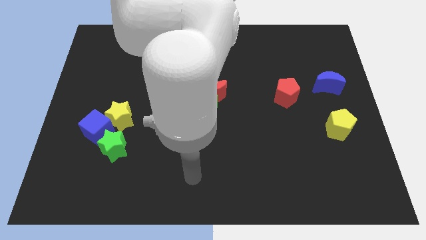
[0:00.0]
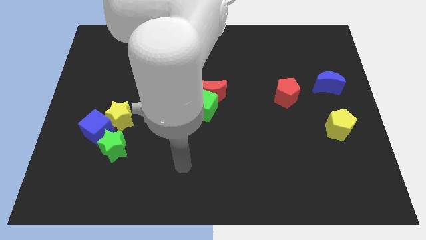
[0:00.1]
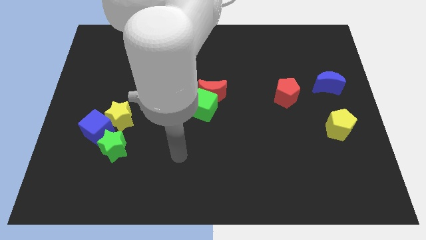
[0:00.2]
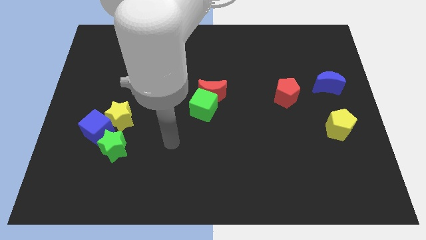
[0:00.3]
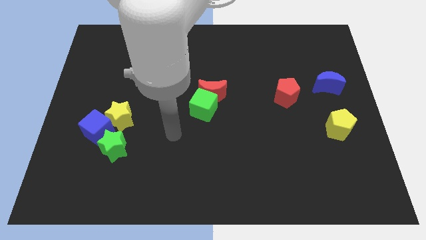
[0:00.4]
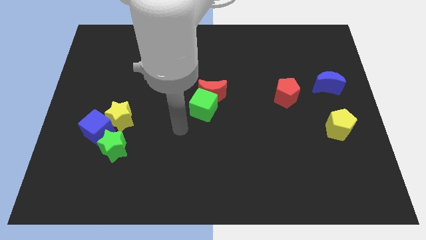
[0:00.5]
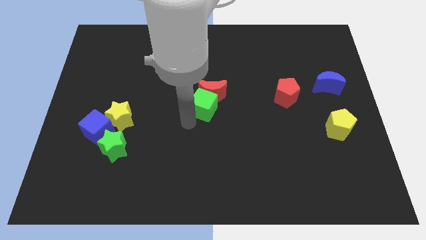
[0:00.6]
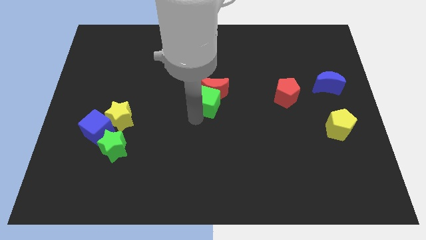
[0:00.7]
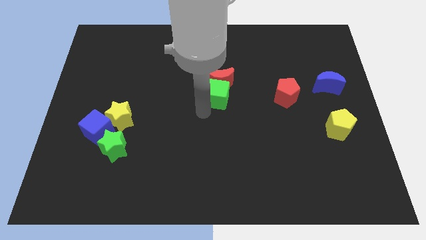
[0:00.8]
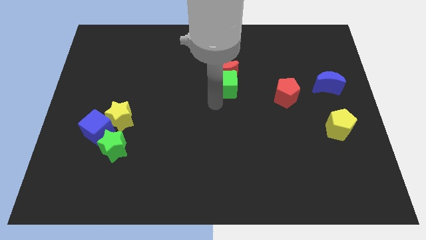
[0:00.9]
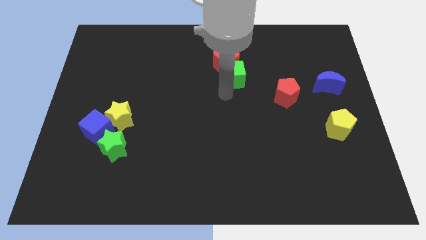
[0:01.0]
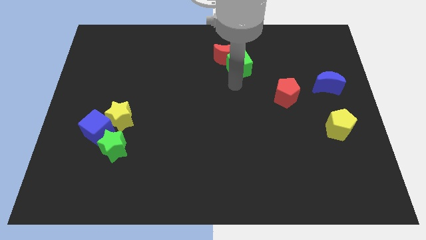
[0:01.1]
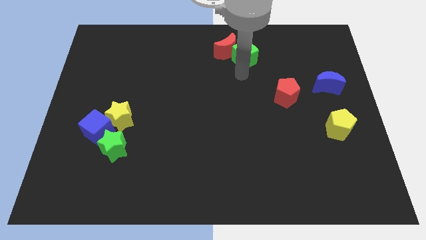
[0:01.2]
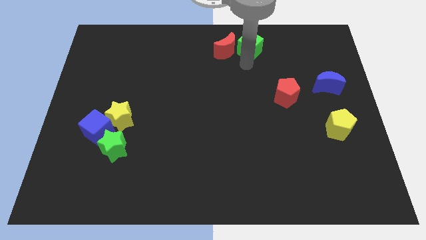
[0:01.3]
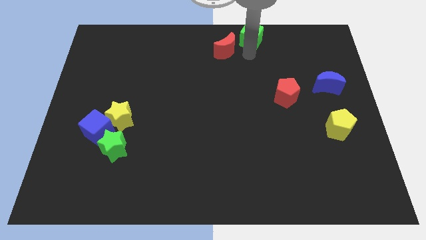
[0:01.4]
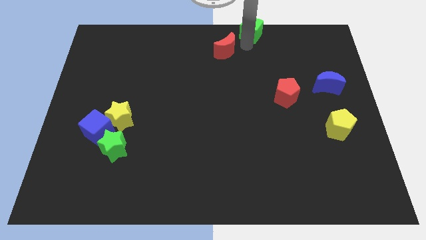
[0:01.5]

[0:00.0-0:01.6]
pull the red moon apart from the green cube

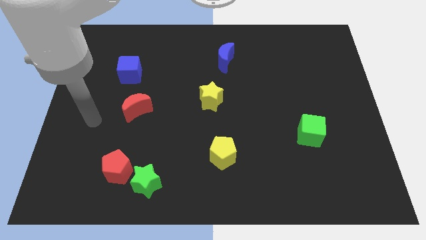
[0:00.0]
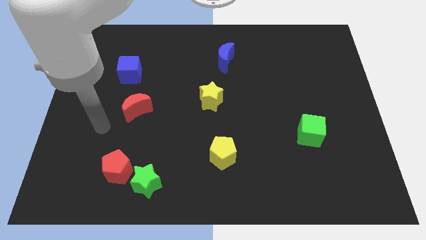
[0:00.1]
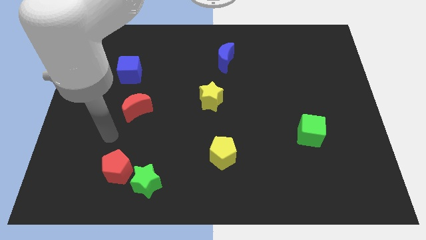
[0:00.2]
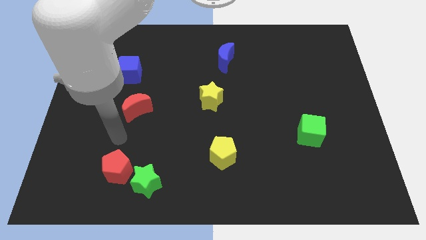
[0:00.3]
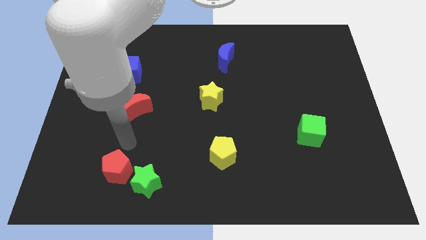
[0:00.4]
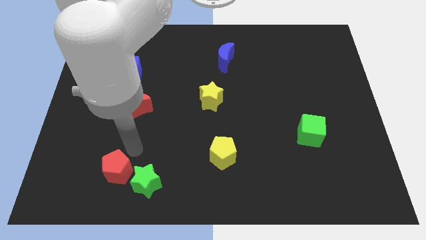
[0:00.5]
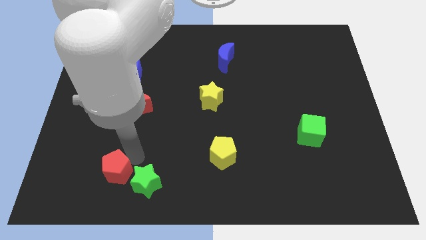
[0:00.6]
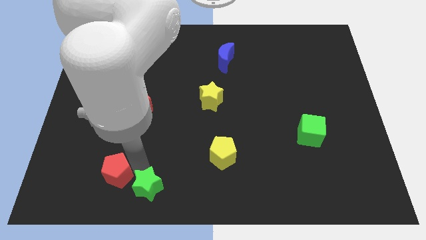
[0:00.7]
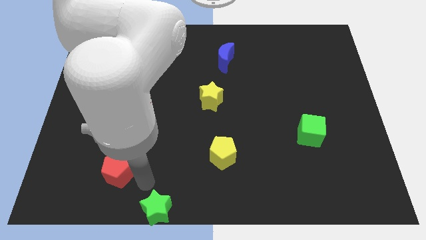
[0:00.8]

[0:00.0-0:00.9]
separate the red pentagon from the green star

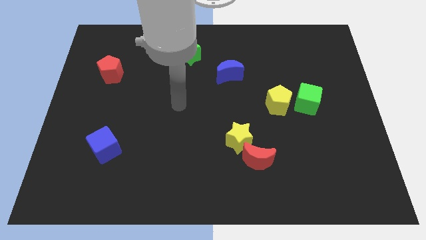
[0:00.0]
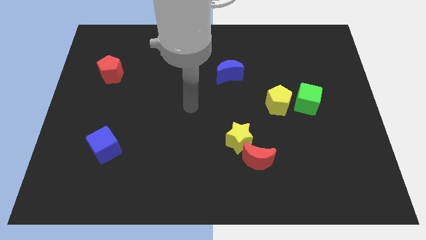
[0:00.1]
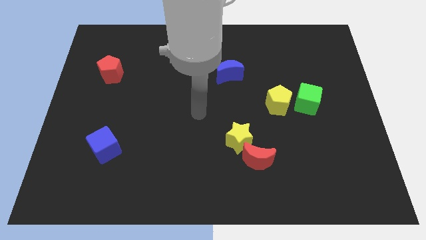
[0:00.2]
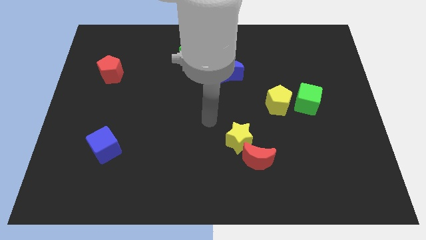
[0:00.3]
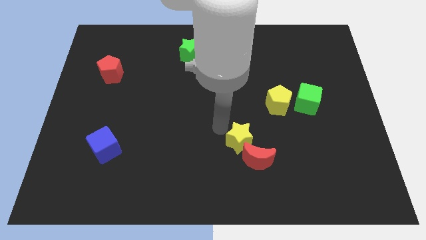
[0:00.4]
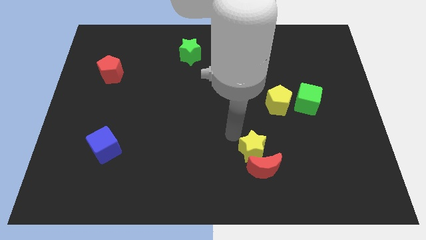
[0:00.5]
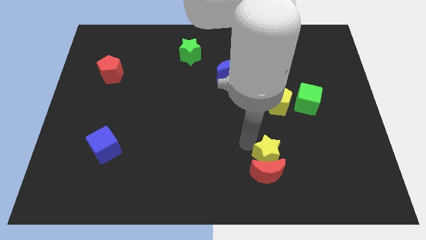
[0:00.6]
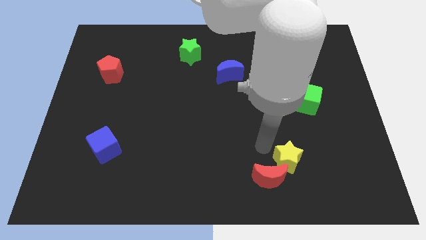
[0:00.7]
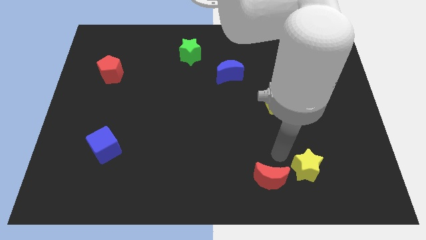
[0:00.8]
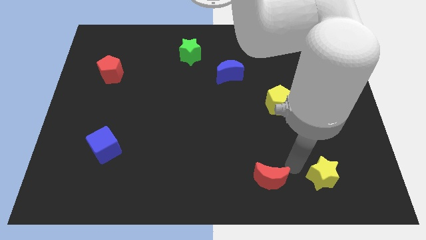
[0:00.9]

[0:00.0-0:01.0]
pull the red moon apart from the yellow star

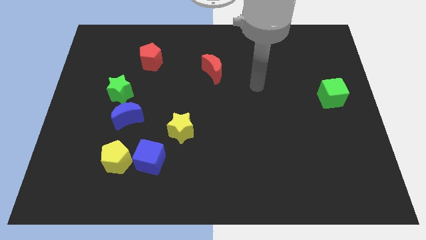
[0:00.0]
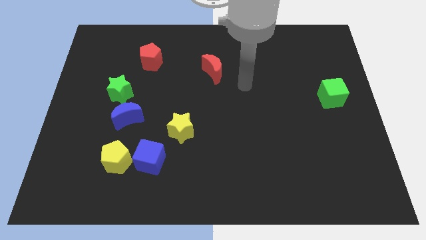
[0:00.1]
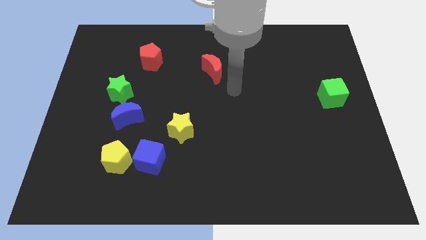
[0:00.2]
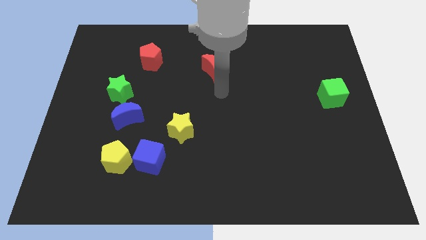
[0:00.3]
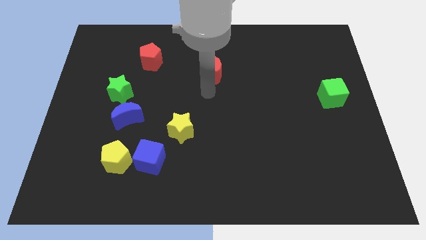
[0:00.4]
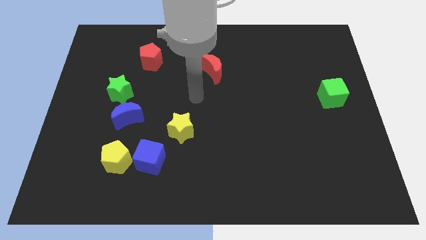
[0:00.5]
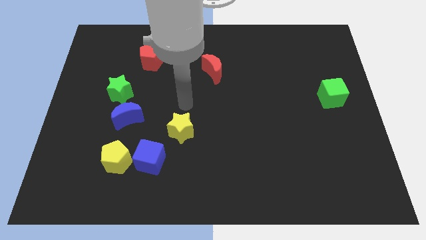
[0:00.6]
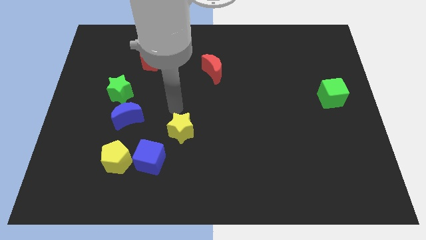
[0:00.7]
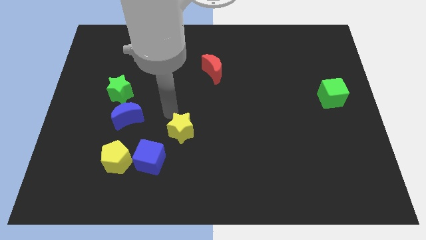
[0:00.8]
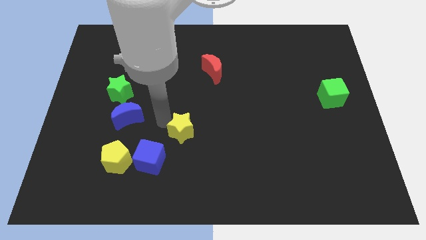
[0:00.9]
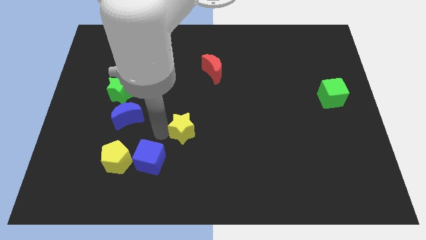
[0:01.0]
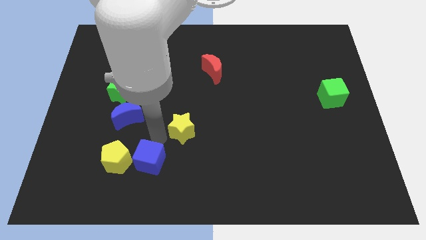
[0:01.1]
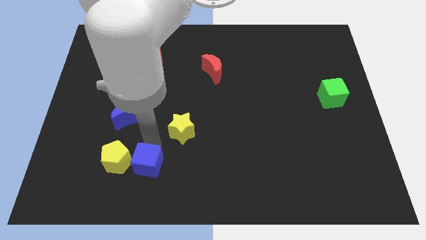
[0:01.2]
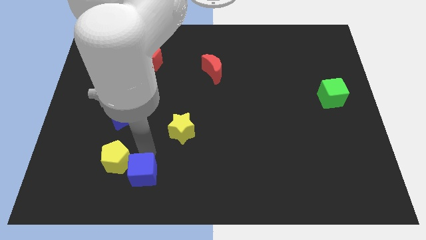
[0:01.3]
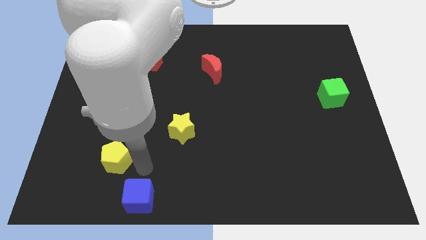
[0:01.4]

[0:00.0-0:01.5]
separate the yellow pentagon from the blue cube

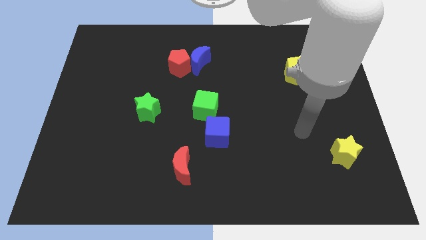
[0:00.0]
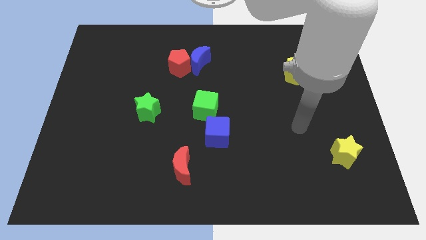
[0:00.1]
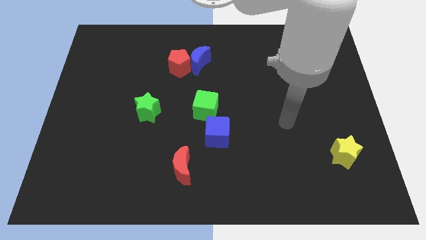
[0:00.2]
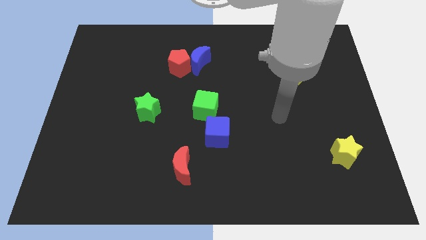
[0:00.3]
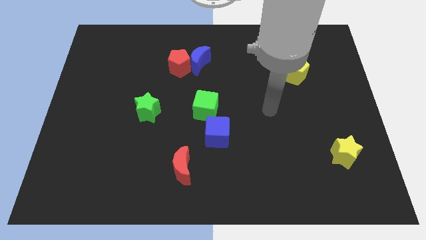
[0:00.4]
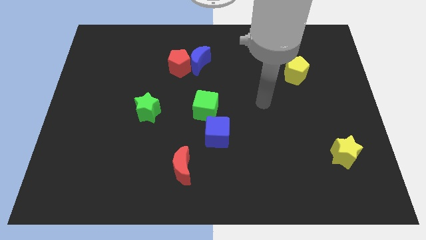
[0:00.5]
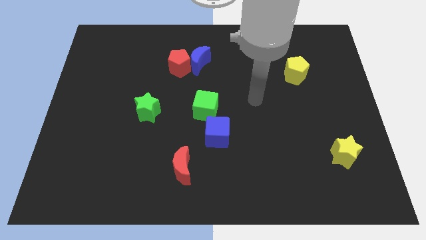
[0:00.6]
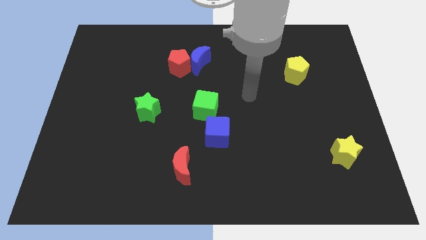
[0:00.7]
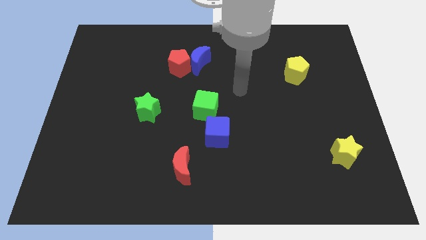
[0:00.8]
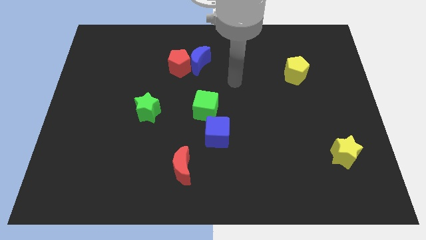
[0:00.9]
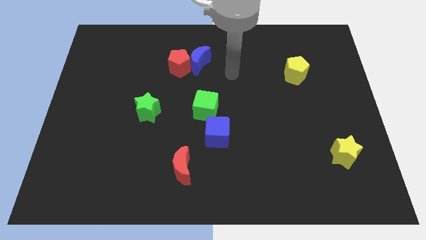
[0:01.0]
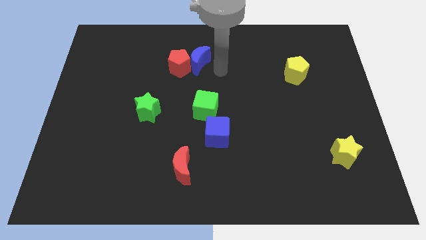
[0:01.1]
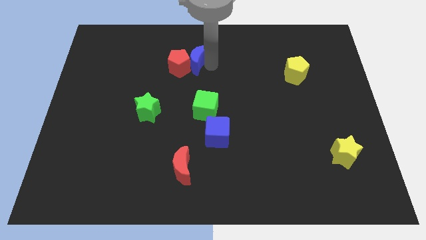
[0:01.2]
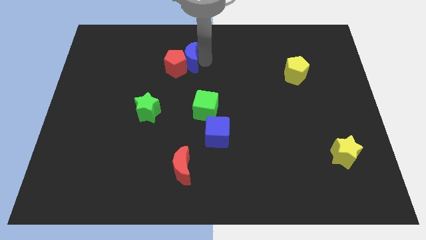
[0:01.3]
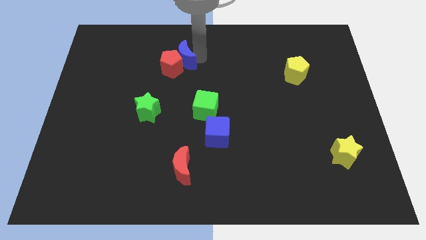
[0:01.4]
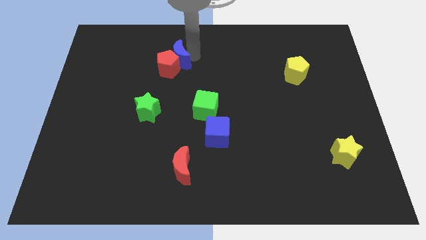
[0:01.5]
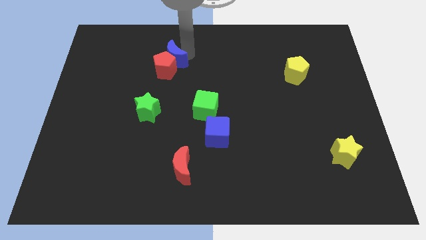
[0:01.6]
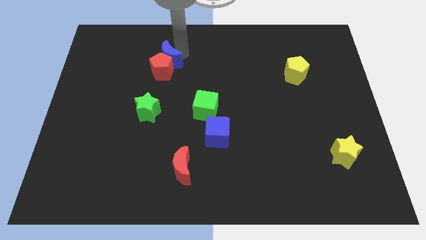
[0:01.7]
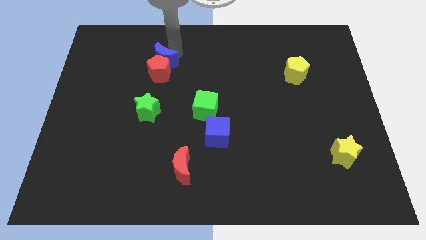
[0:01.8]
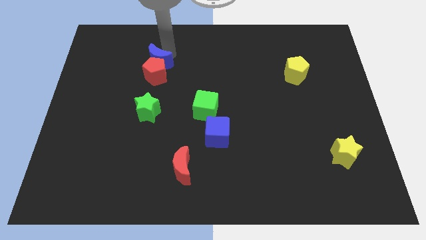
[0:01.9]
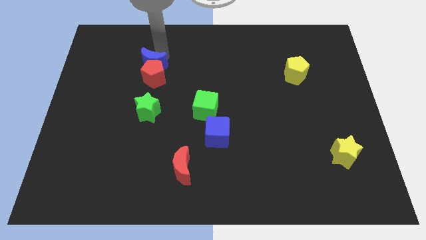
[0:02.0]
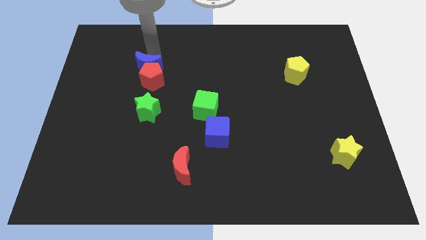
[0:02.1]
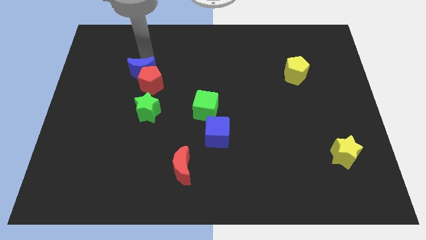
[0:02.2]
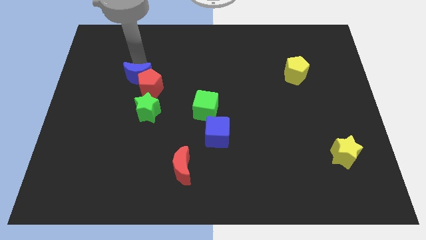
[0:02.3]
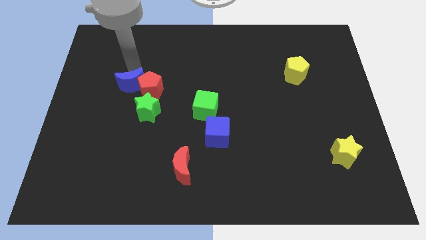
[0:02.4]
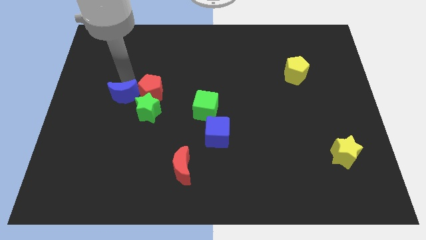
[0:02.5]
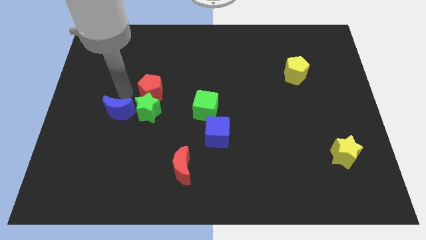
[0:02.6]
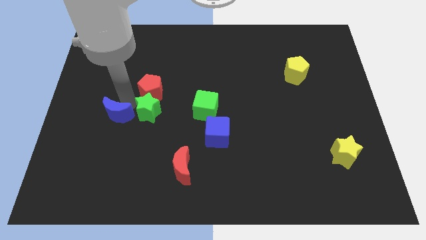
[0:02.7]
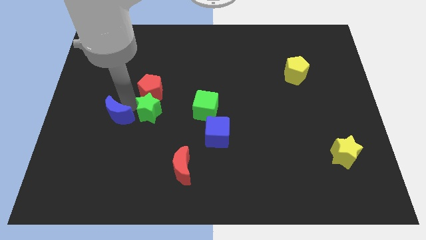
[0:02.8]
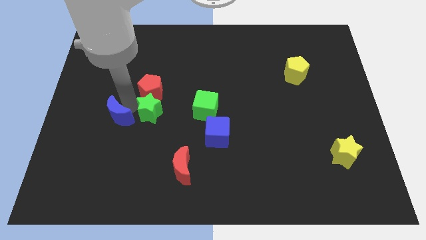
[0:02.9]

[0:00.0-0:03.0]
move the red pentagon away from the blue moon

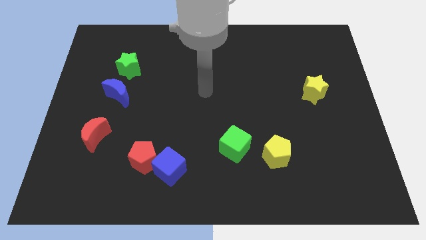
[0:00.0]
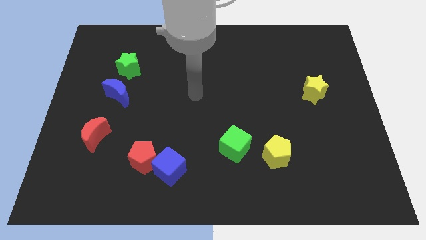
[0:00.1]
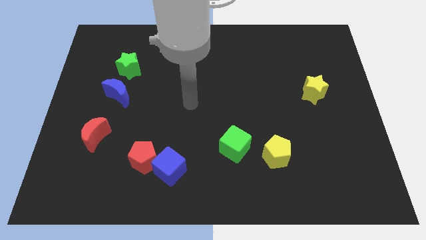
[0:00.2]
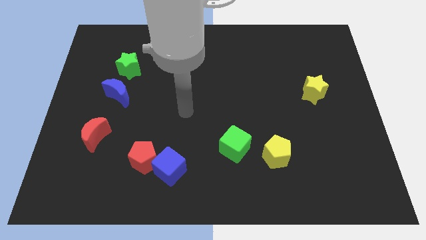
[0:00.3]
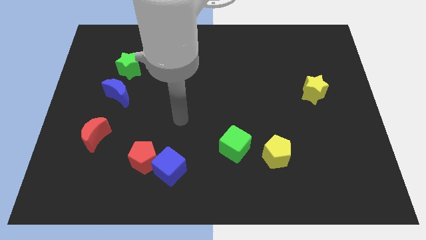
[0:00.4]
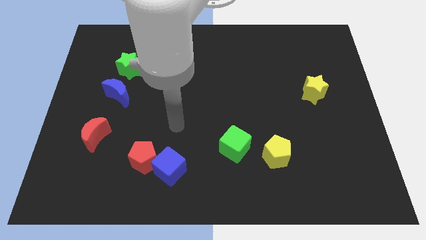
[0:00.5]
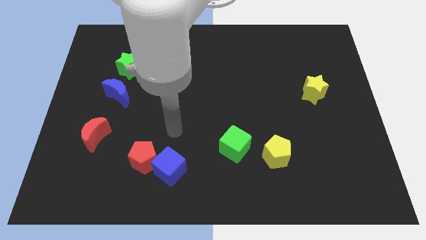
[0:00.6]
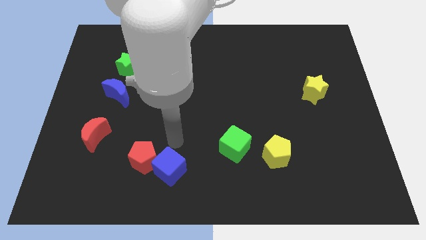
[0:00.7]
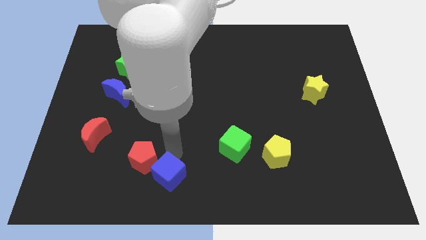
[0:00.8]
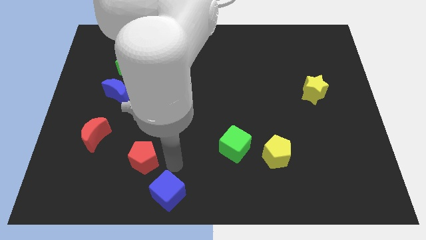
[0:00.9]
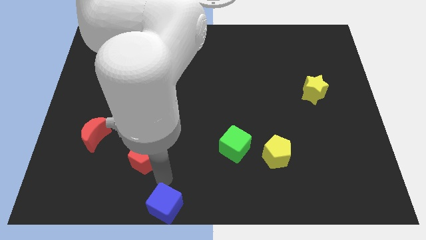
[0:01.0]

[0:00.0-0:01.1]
pull the red pentagon apart from the blue cube

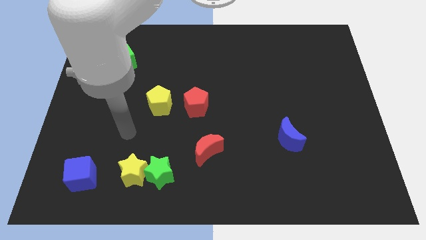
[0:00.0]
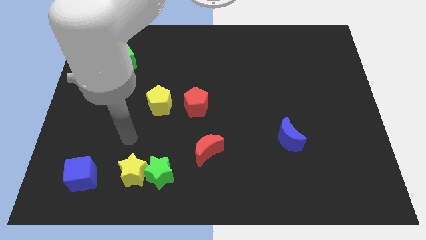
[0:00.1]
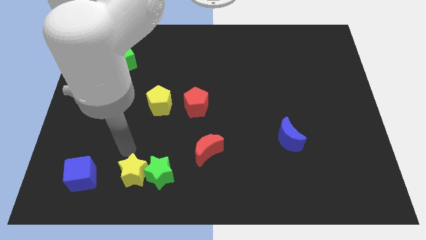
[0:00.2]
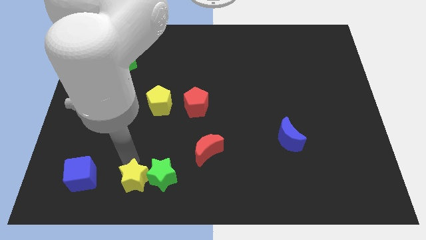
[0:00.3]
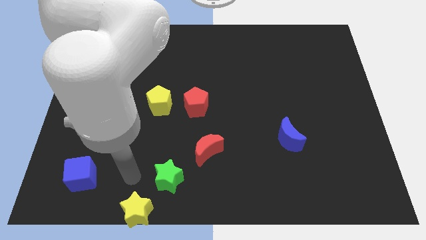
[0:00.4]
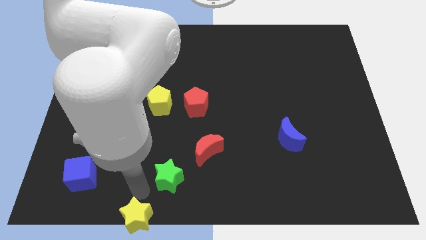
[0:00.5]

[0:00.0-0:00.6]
separate the green star from the yellow star
